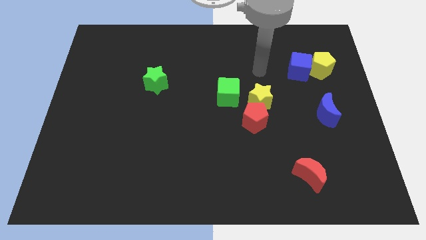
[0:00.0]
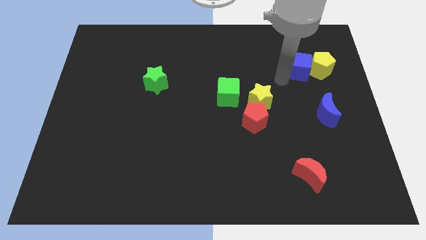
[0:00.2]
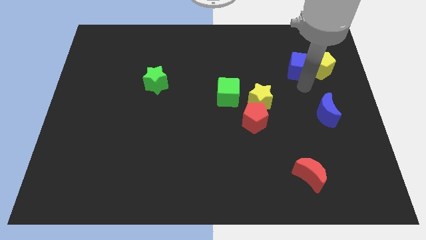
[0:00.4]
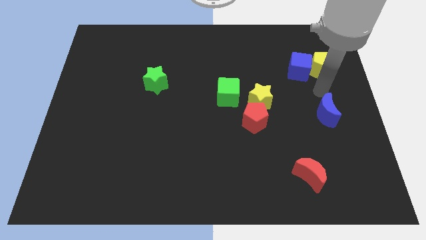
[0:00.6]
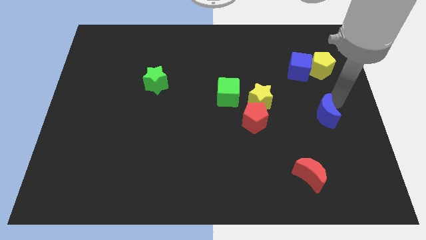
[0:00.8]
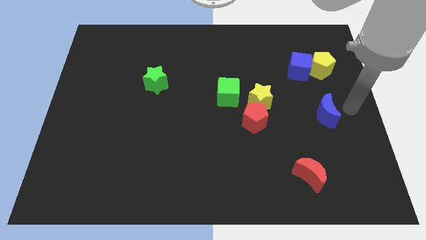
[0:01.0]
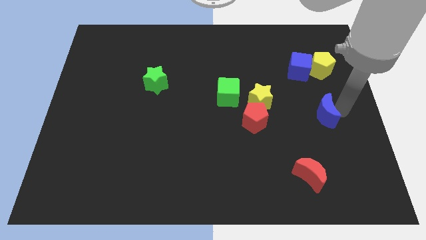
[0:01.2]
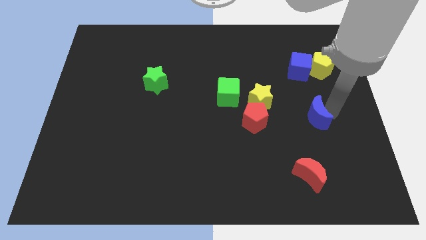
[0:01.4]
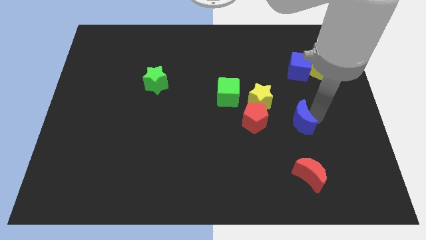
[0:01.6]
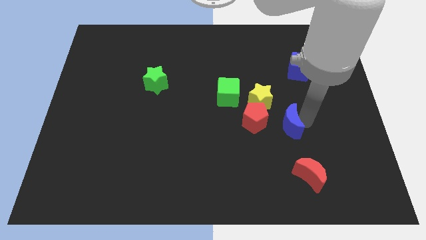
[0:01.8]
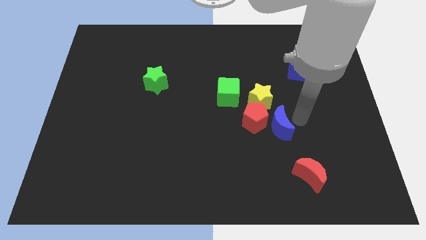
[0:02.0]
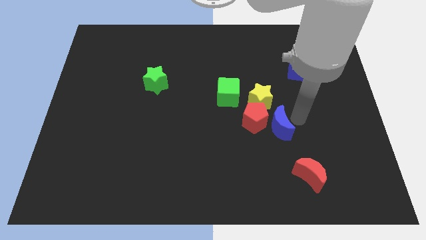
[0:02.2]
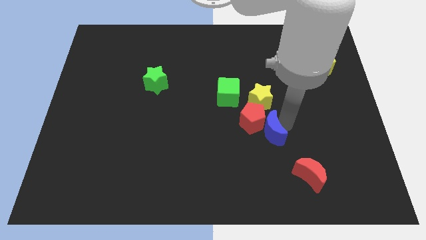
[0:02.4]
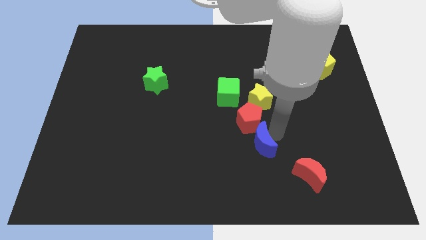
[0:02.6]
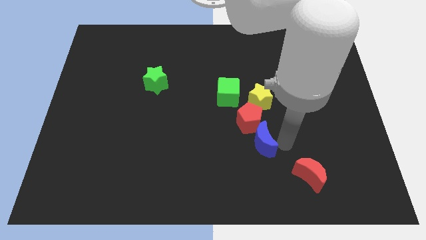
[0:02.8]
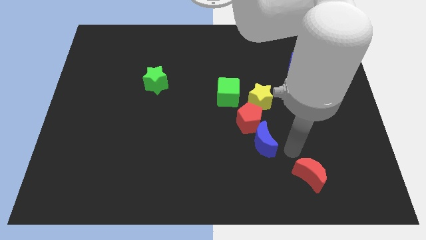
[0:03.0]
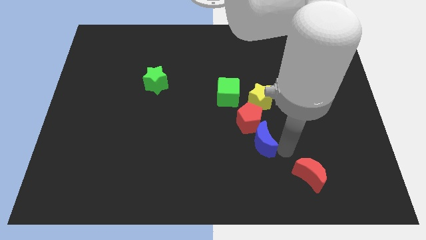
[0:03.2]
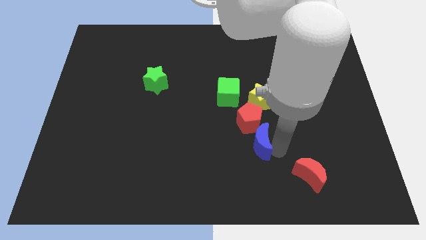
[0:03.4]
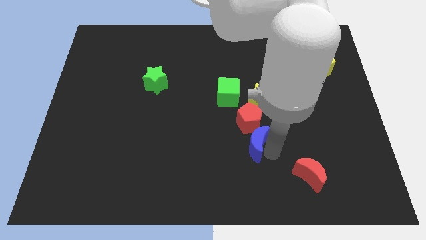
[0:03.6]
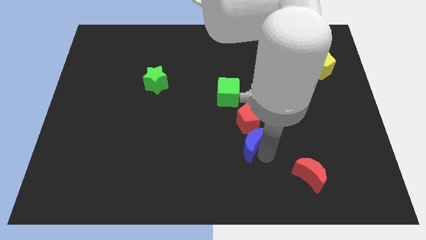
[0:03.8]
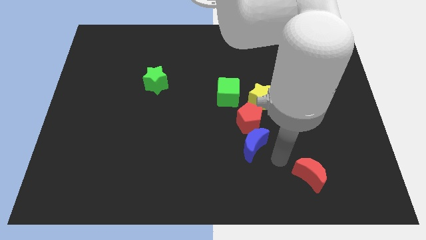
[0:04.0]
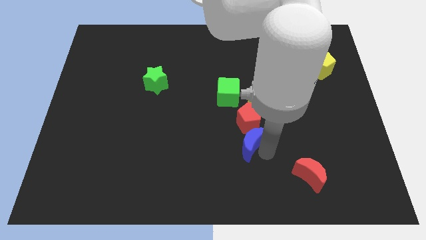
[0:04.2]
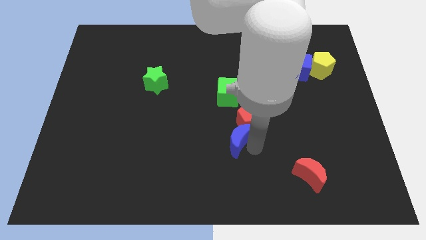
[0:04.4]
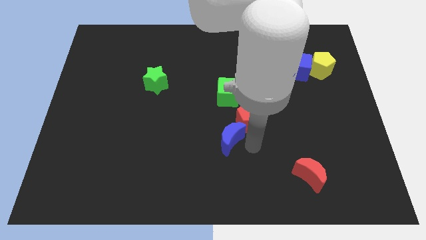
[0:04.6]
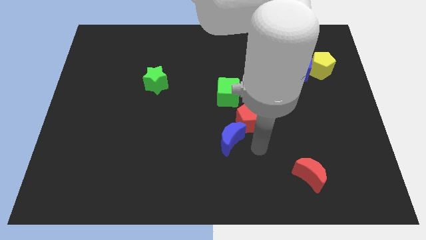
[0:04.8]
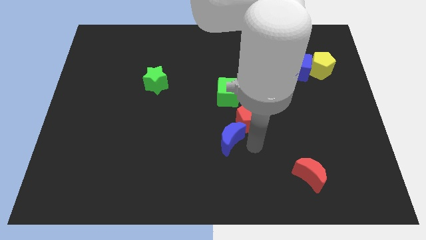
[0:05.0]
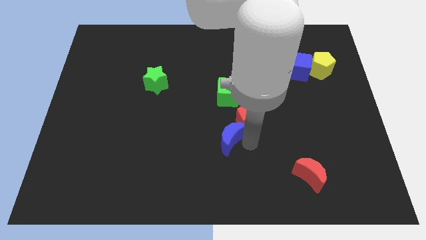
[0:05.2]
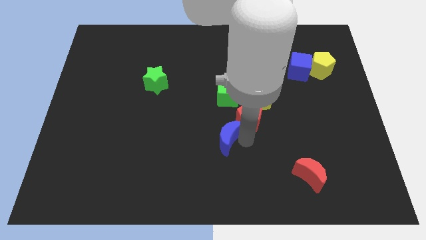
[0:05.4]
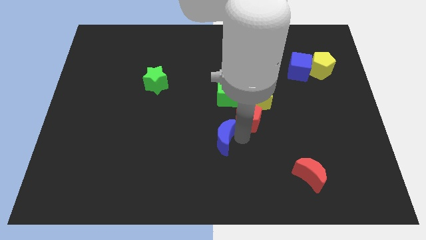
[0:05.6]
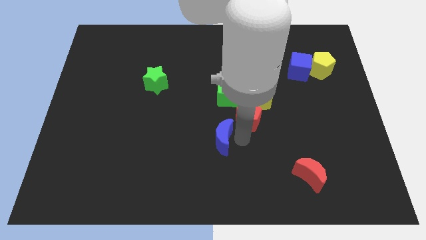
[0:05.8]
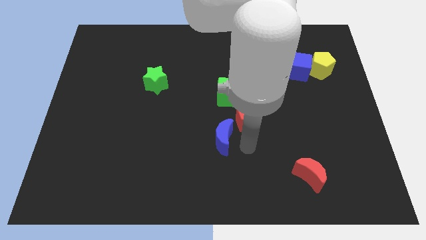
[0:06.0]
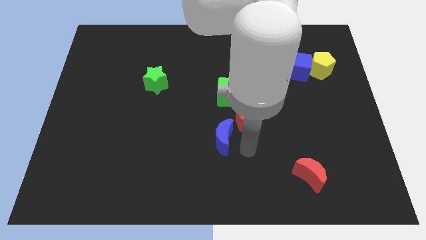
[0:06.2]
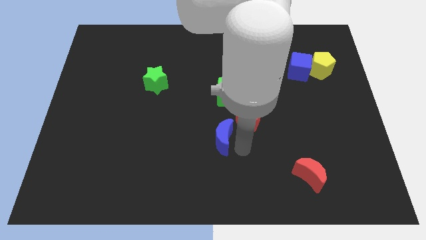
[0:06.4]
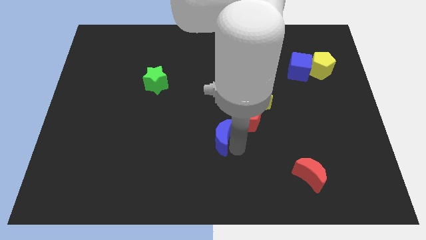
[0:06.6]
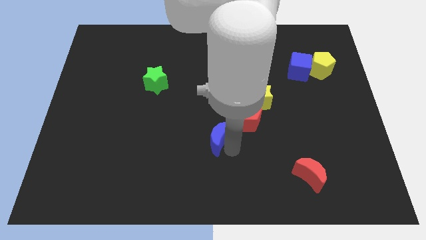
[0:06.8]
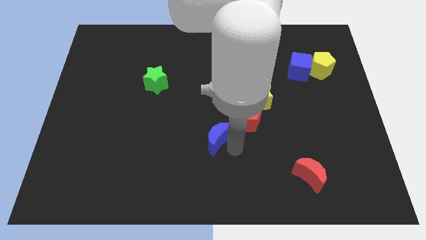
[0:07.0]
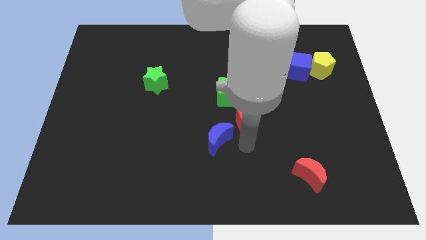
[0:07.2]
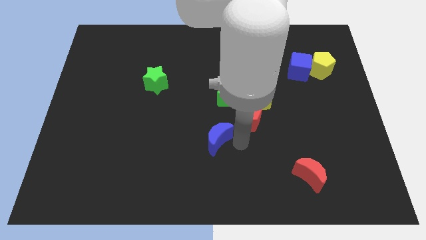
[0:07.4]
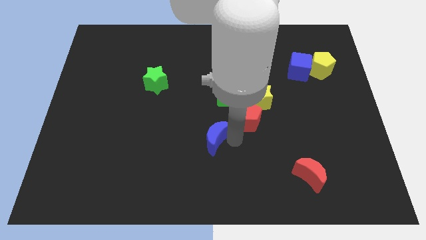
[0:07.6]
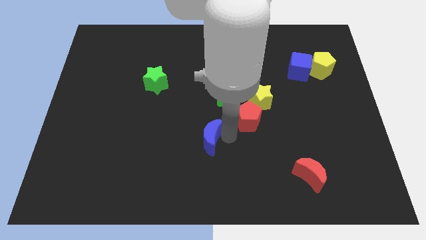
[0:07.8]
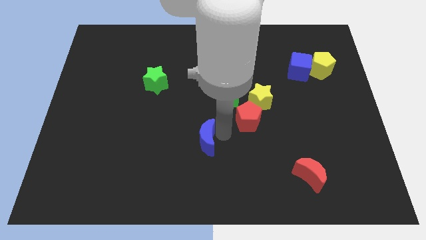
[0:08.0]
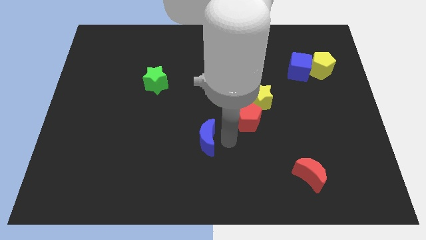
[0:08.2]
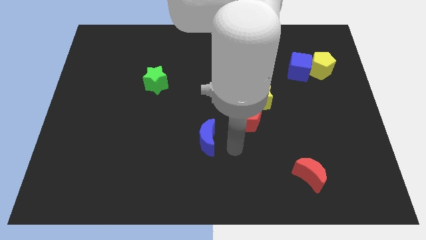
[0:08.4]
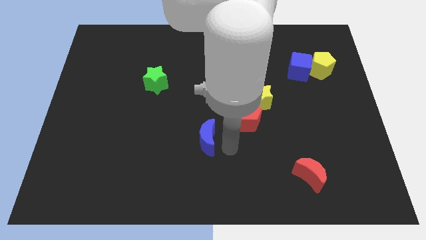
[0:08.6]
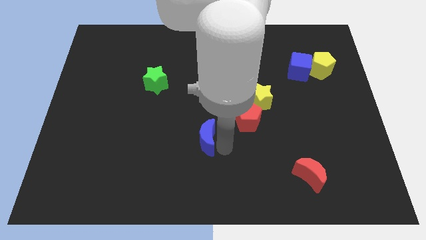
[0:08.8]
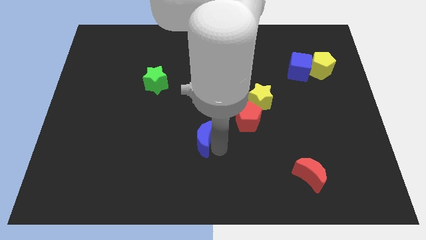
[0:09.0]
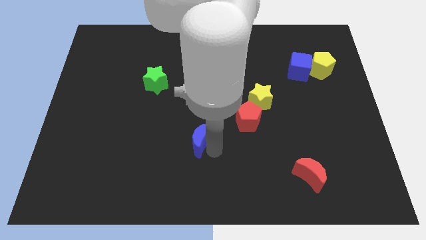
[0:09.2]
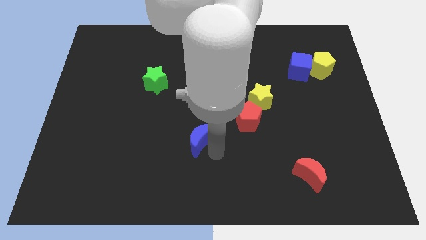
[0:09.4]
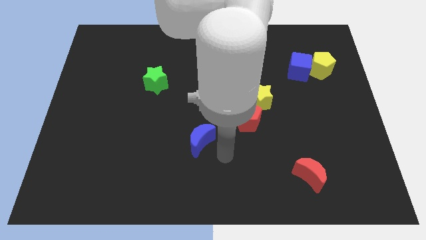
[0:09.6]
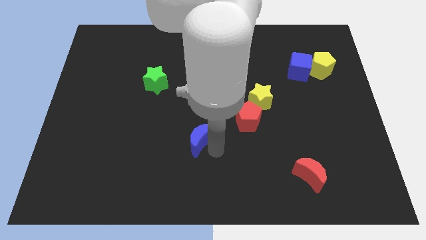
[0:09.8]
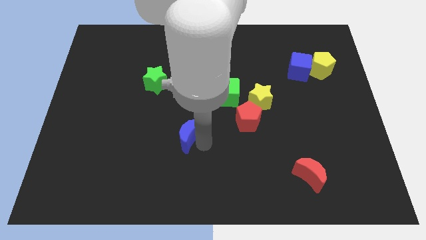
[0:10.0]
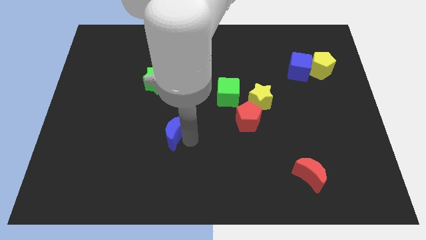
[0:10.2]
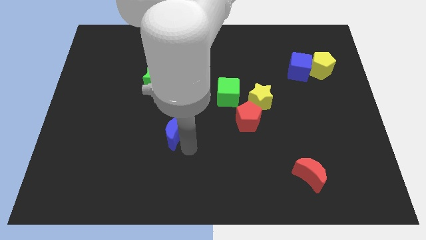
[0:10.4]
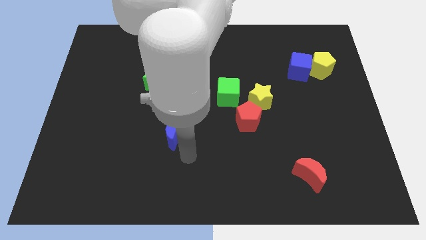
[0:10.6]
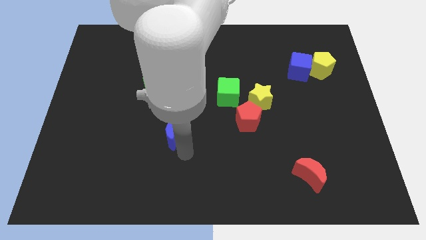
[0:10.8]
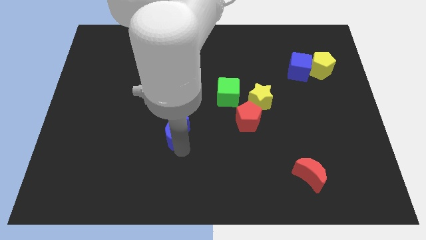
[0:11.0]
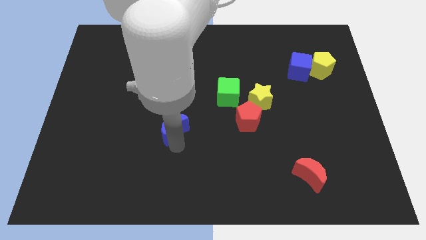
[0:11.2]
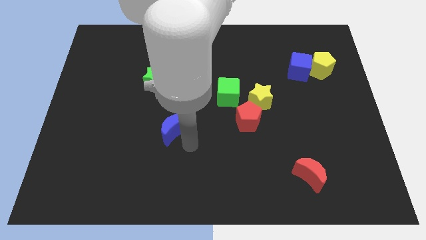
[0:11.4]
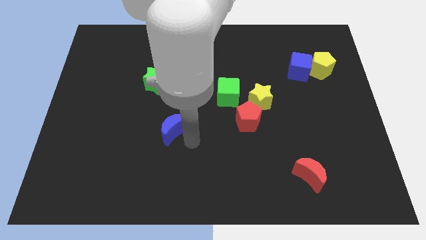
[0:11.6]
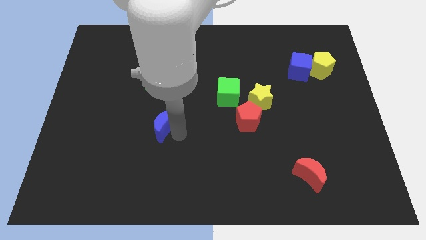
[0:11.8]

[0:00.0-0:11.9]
move the blue moon below the green star

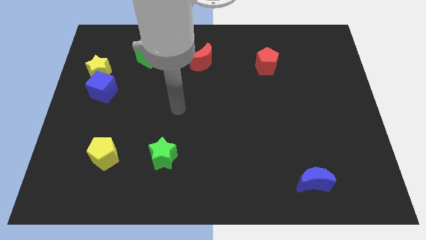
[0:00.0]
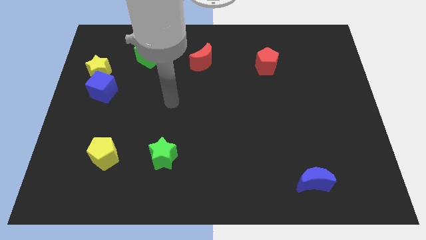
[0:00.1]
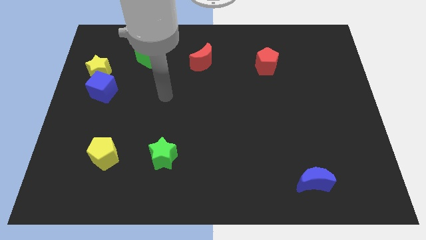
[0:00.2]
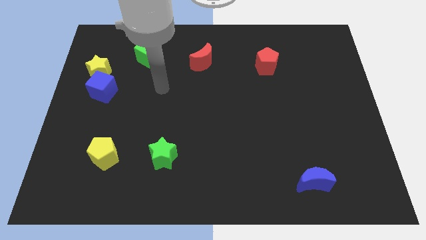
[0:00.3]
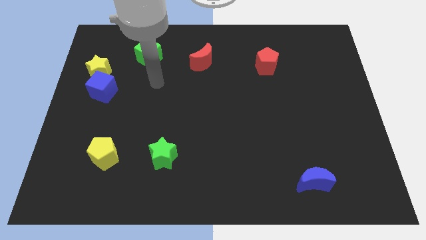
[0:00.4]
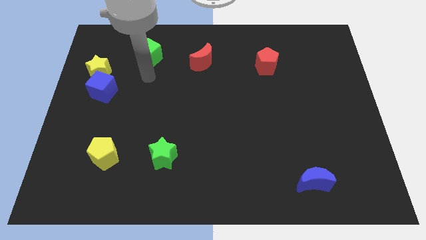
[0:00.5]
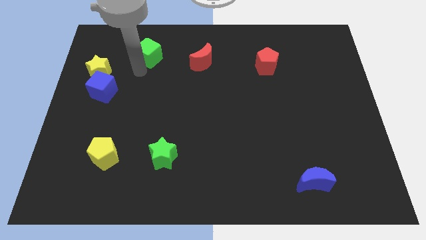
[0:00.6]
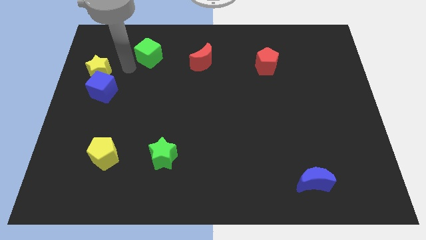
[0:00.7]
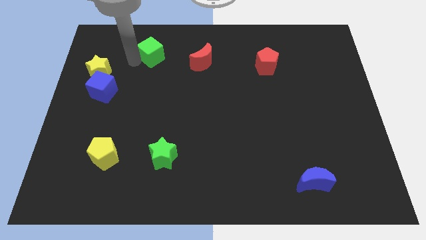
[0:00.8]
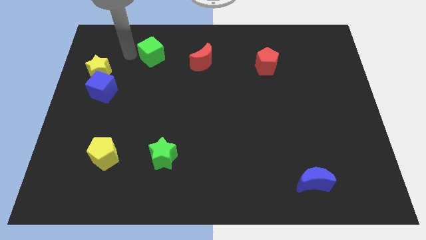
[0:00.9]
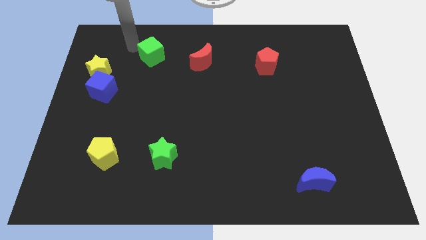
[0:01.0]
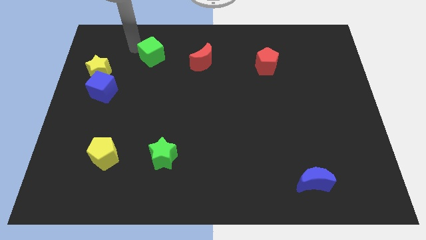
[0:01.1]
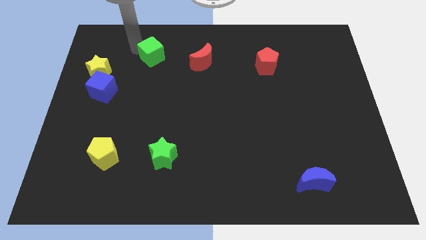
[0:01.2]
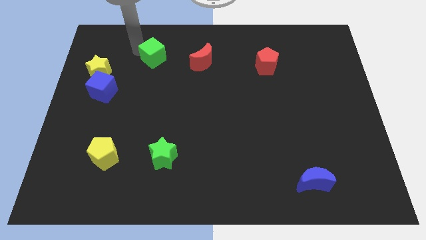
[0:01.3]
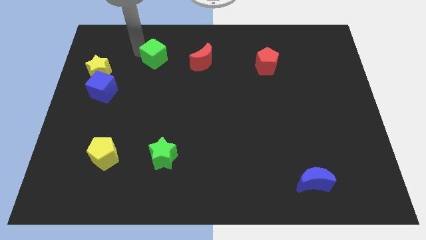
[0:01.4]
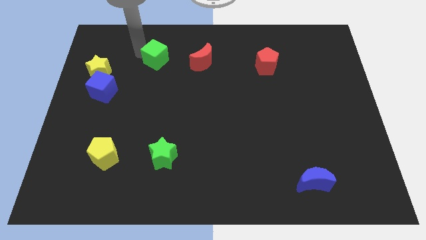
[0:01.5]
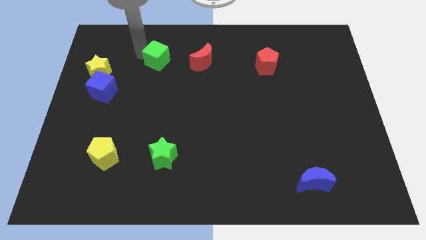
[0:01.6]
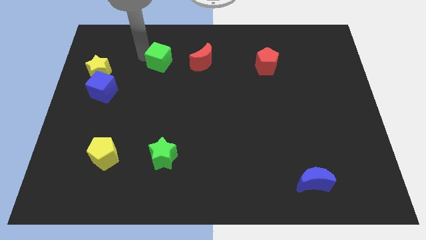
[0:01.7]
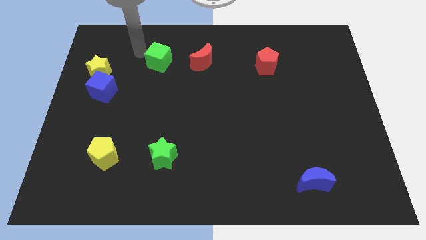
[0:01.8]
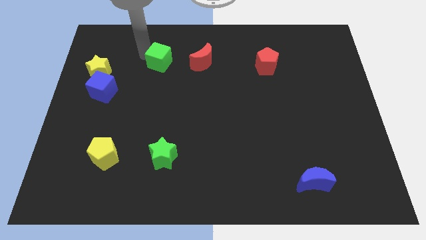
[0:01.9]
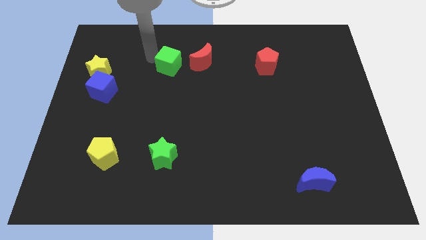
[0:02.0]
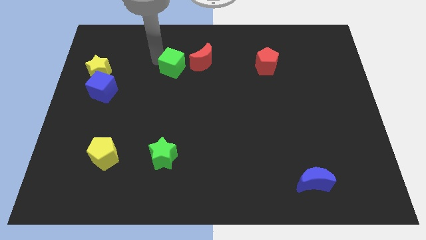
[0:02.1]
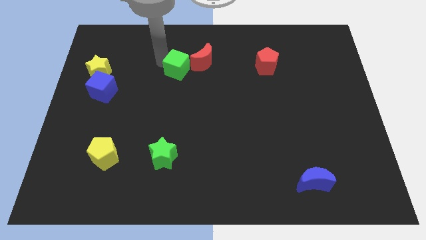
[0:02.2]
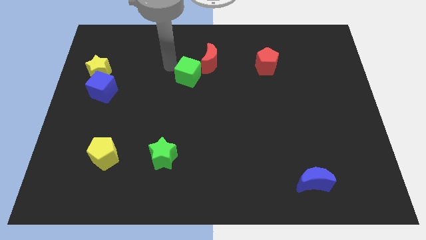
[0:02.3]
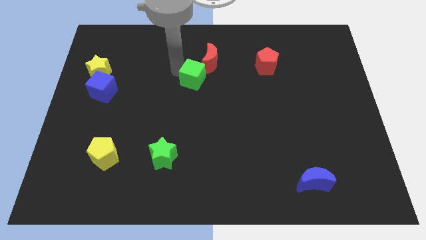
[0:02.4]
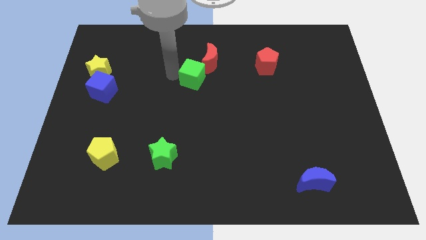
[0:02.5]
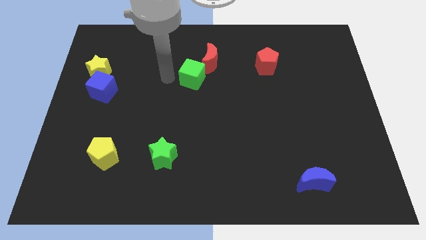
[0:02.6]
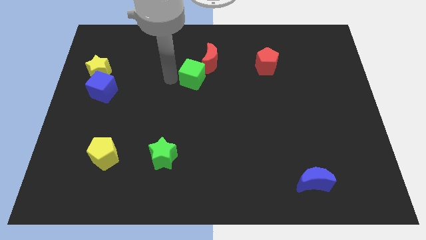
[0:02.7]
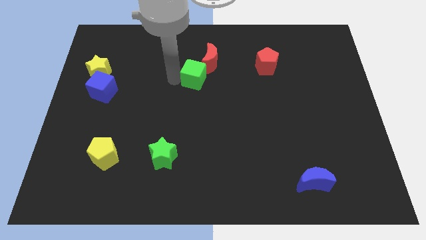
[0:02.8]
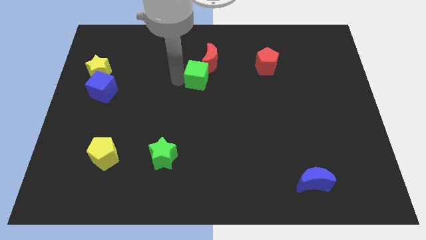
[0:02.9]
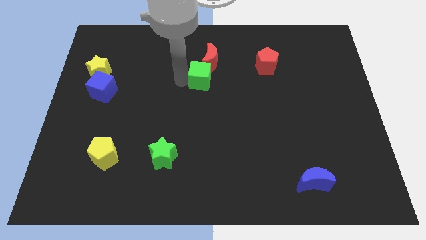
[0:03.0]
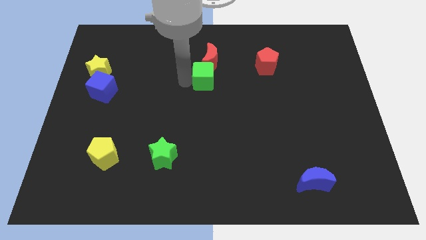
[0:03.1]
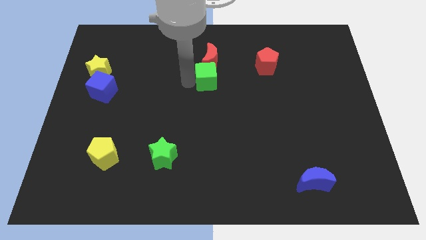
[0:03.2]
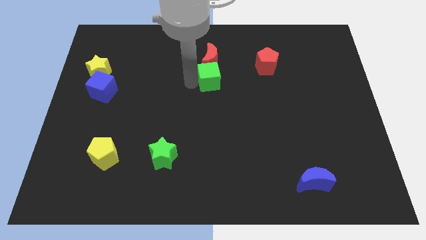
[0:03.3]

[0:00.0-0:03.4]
put the green cube to the bottom right side of the red moon
